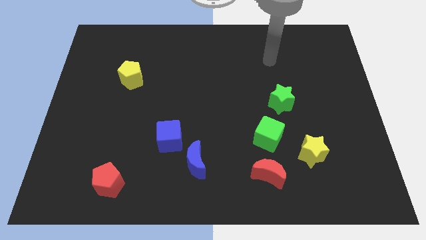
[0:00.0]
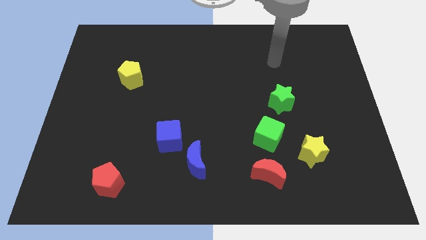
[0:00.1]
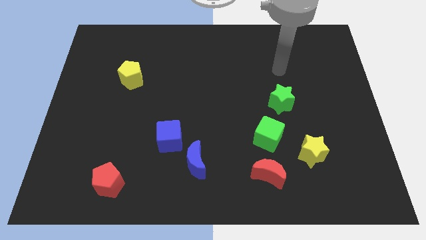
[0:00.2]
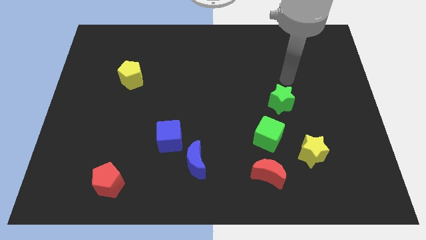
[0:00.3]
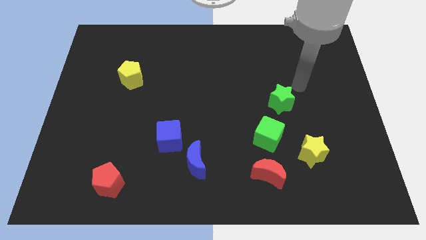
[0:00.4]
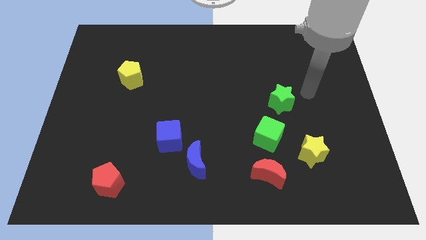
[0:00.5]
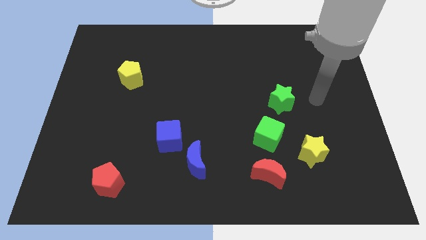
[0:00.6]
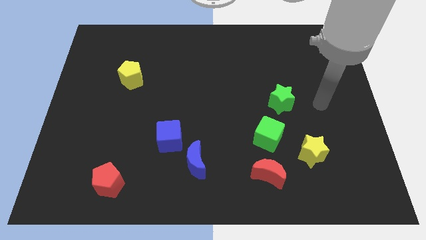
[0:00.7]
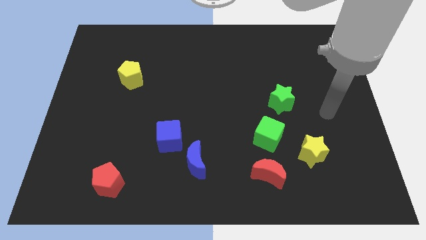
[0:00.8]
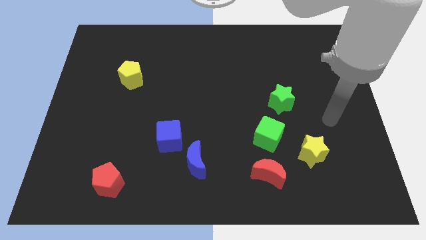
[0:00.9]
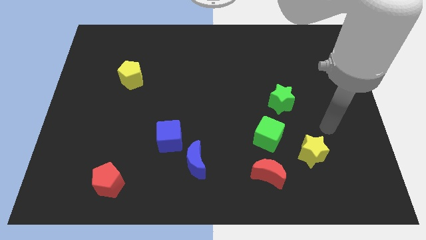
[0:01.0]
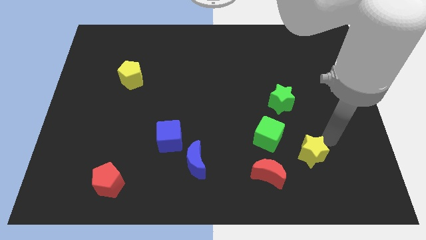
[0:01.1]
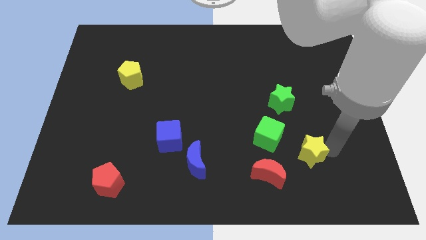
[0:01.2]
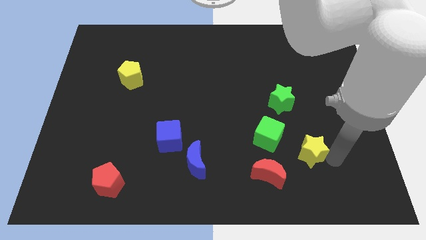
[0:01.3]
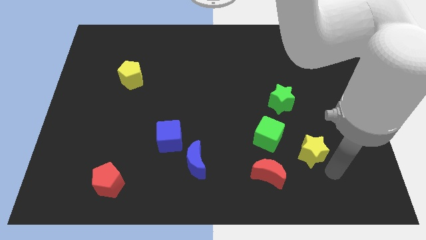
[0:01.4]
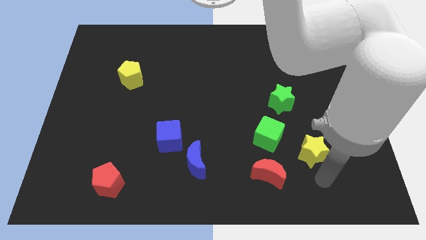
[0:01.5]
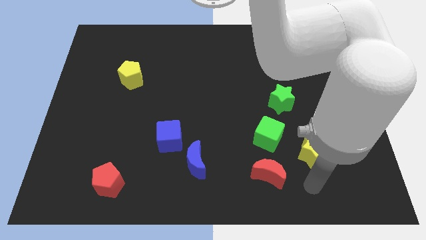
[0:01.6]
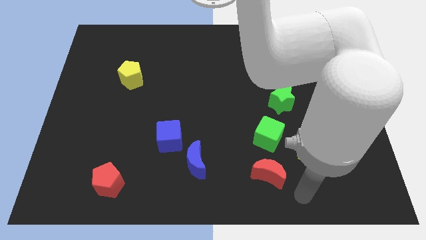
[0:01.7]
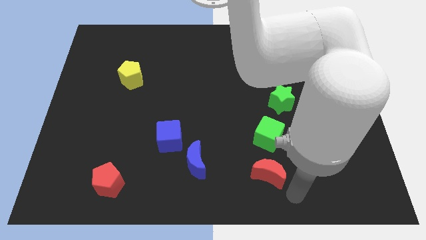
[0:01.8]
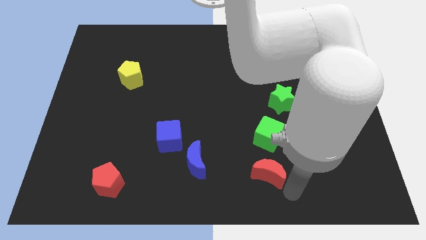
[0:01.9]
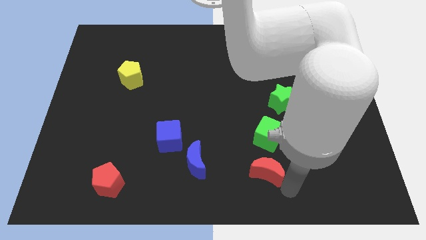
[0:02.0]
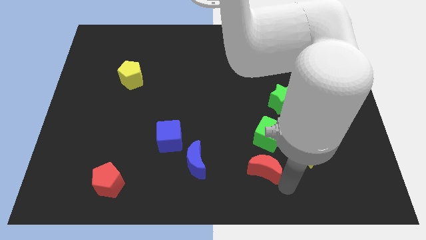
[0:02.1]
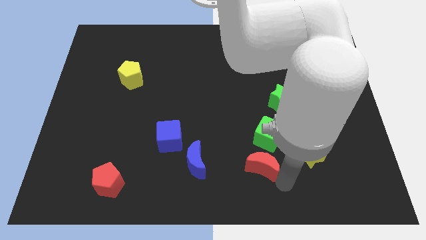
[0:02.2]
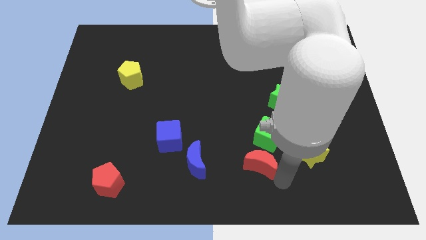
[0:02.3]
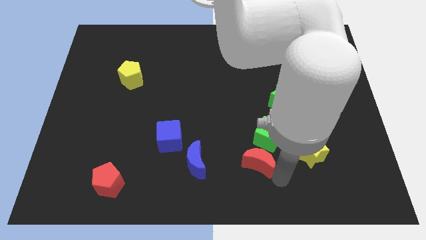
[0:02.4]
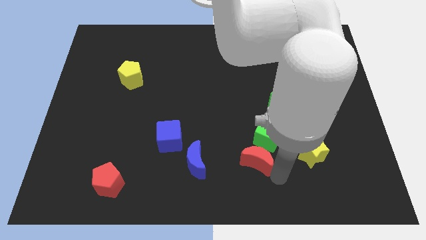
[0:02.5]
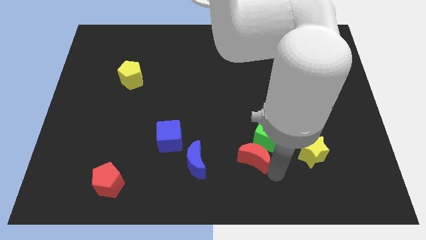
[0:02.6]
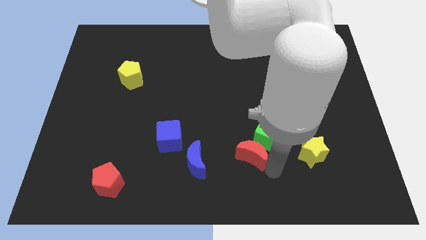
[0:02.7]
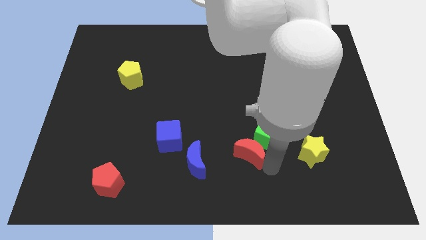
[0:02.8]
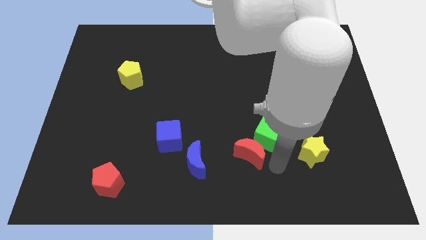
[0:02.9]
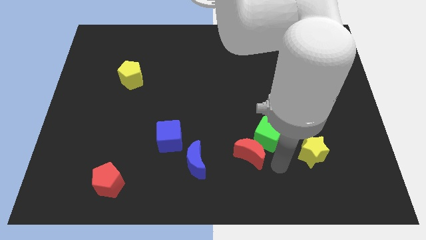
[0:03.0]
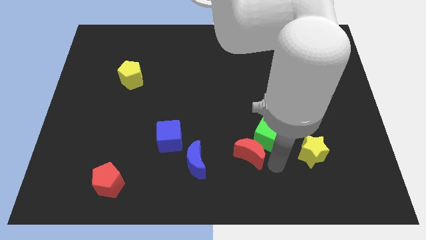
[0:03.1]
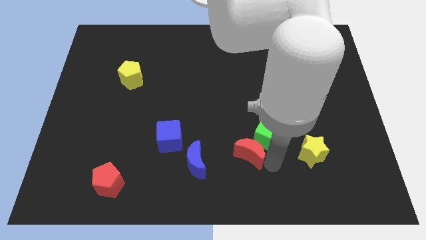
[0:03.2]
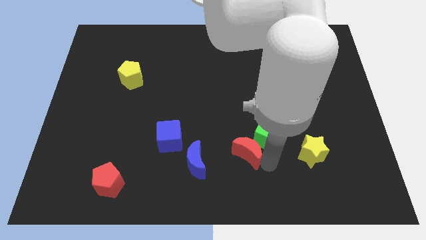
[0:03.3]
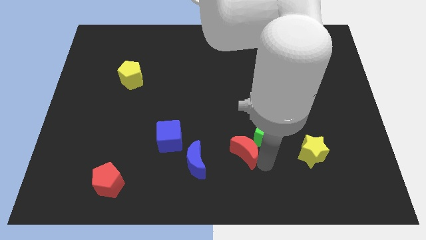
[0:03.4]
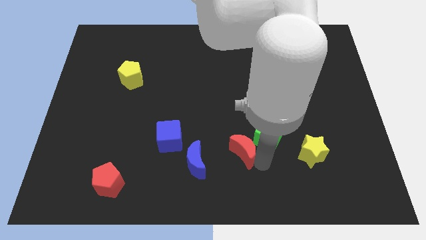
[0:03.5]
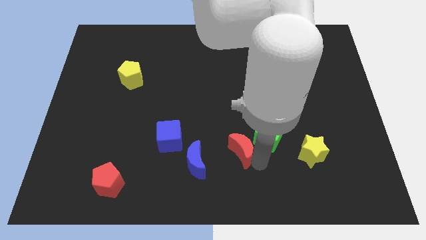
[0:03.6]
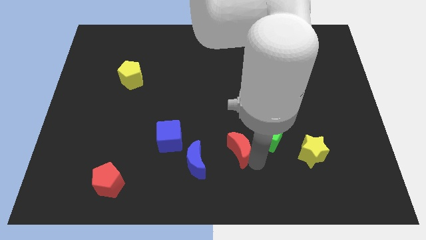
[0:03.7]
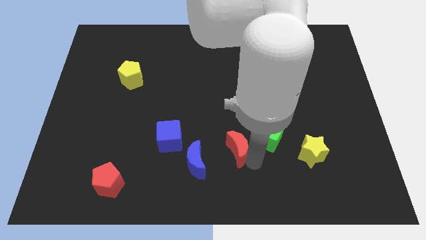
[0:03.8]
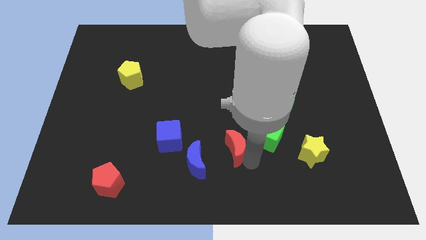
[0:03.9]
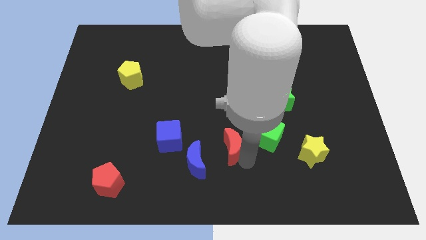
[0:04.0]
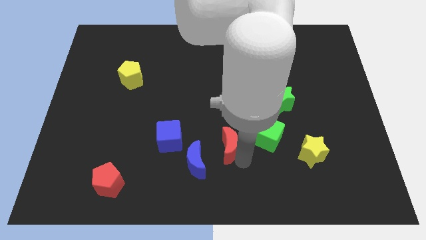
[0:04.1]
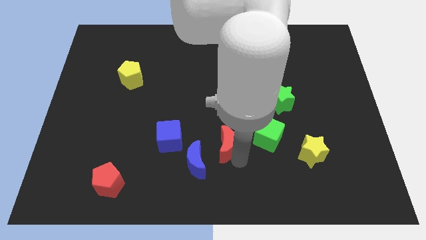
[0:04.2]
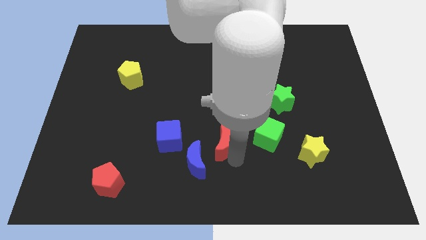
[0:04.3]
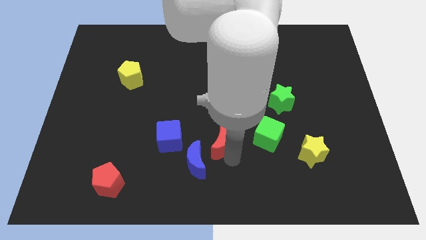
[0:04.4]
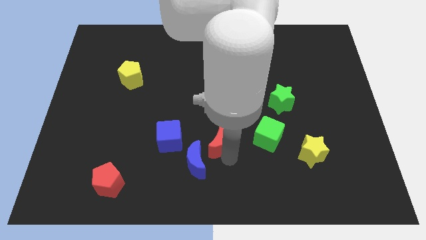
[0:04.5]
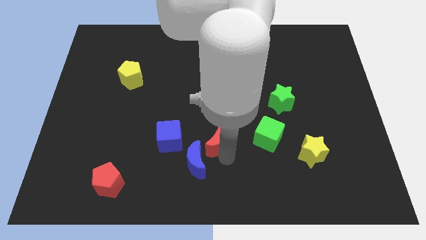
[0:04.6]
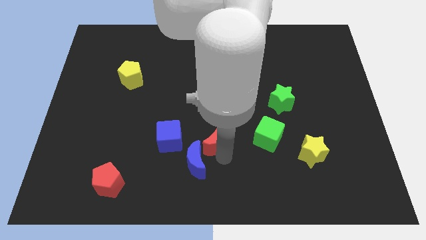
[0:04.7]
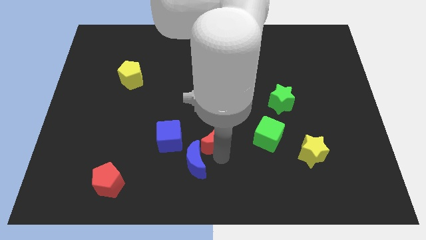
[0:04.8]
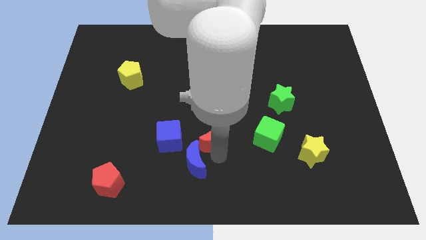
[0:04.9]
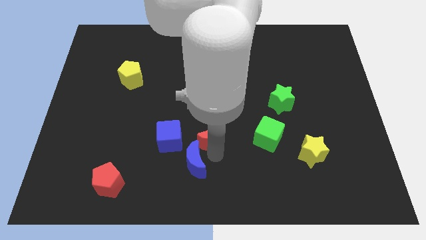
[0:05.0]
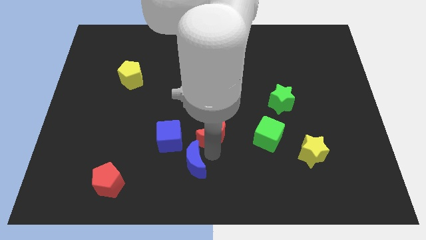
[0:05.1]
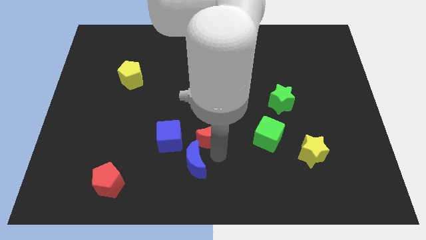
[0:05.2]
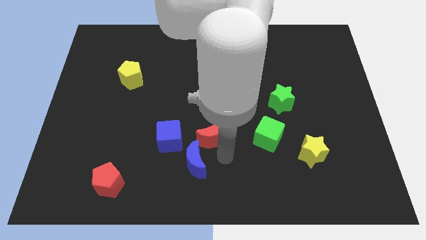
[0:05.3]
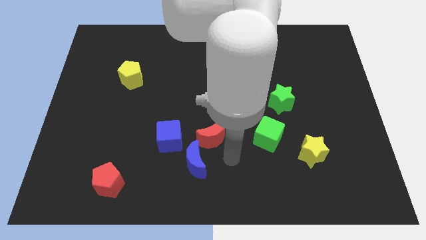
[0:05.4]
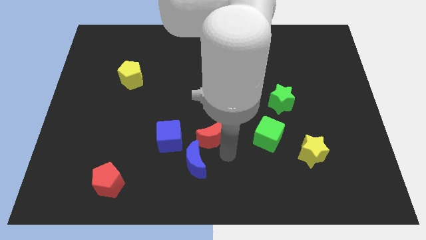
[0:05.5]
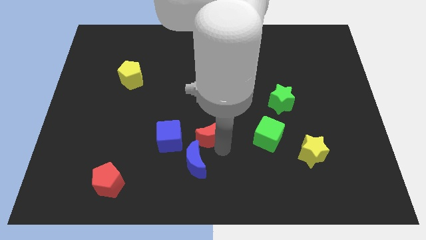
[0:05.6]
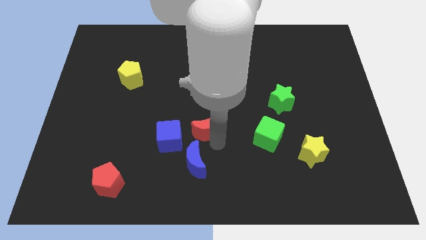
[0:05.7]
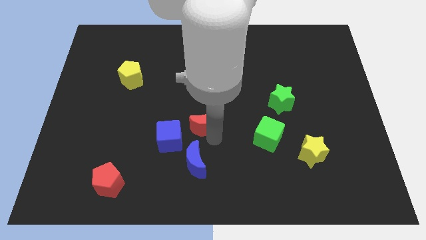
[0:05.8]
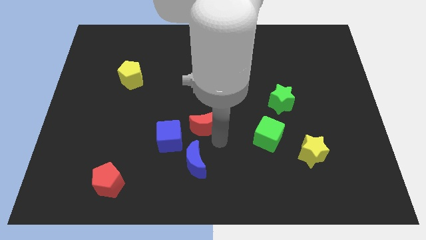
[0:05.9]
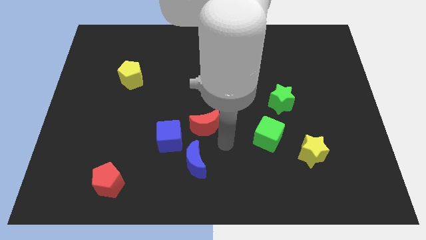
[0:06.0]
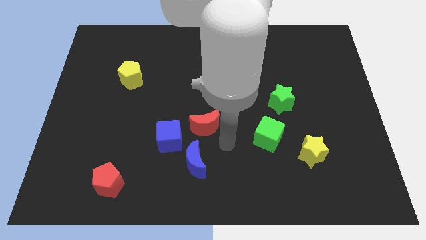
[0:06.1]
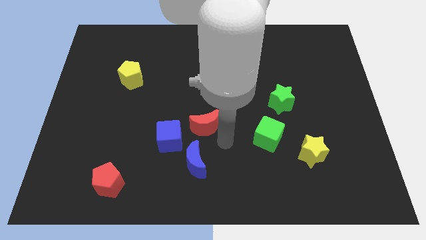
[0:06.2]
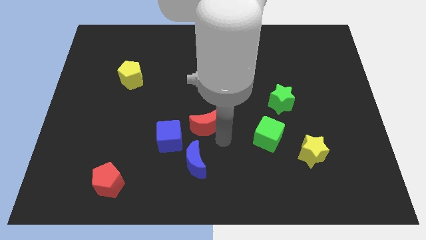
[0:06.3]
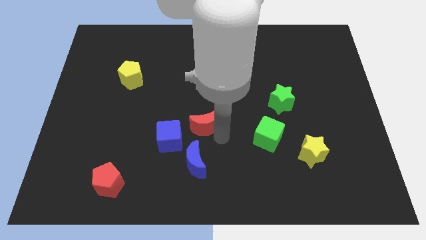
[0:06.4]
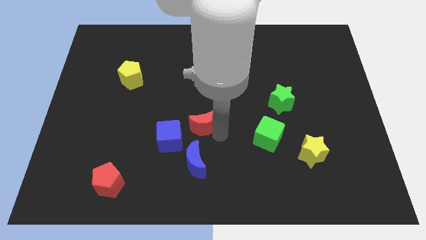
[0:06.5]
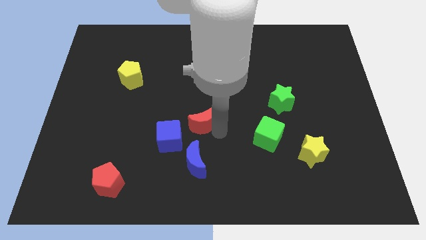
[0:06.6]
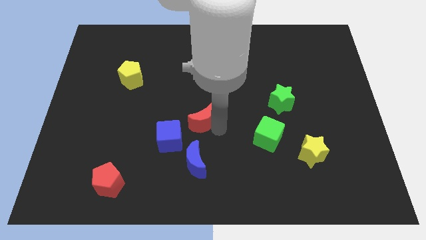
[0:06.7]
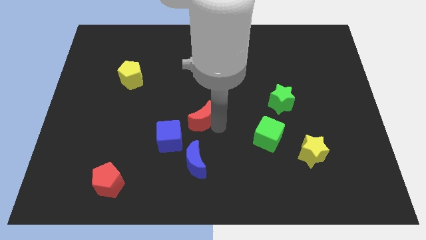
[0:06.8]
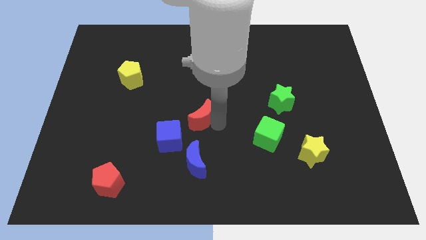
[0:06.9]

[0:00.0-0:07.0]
slide the red moon up and left

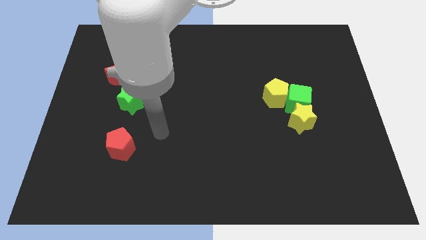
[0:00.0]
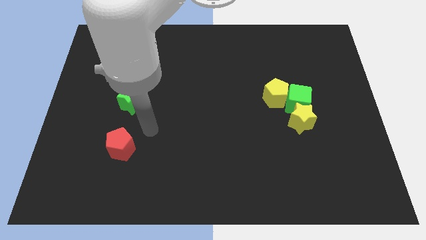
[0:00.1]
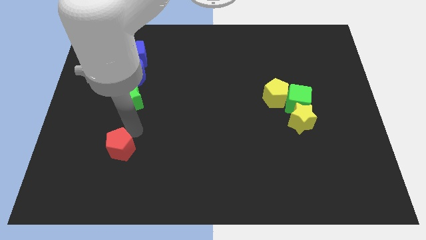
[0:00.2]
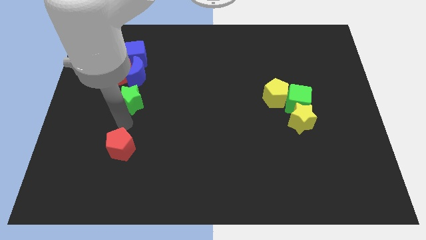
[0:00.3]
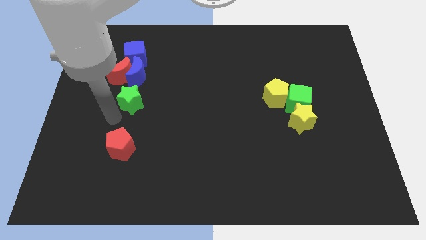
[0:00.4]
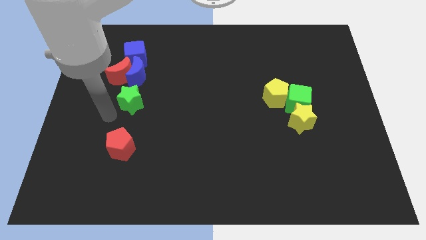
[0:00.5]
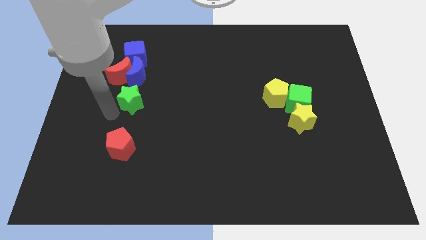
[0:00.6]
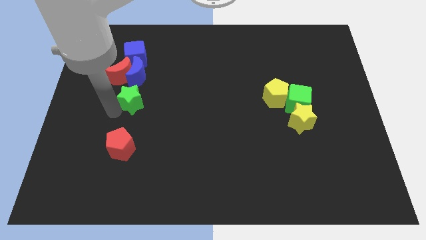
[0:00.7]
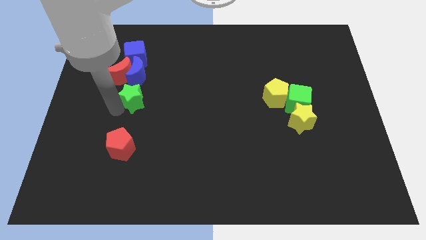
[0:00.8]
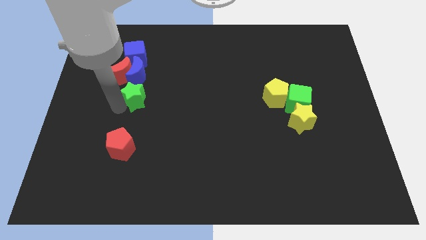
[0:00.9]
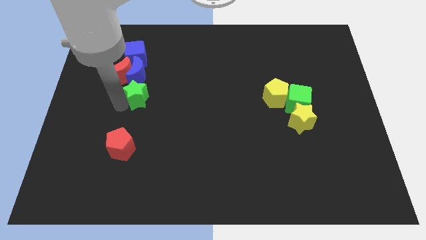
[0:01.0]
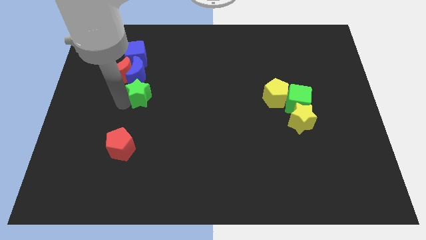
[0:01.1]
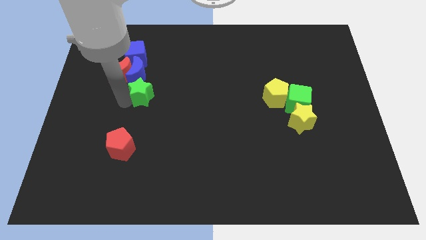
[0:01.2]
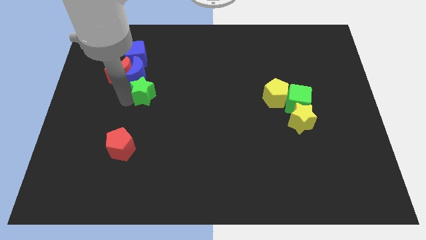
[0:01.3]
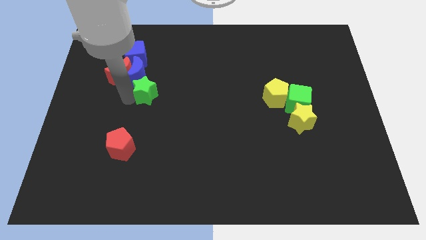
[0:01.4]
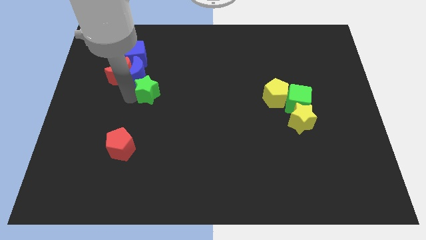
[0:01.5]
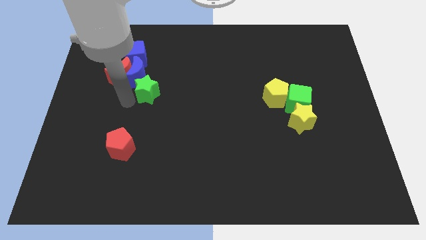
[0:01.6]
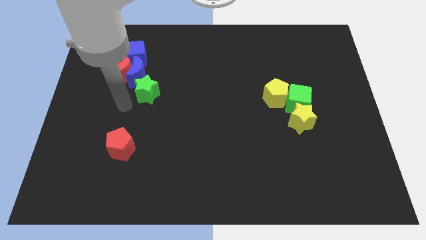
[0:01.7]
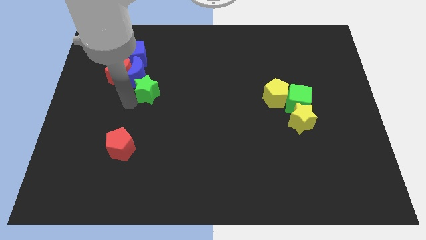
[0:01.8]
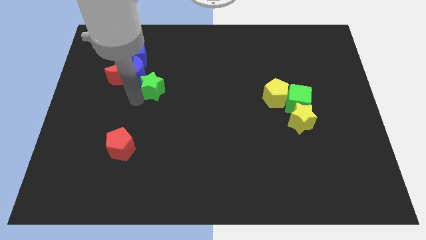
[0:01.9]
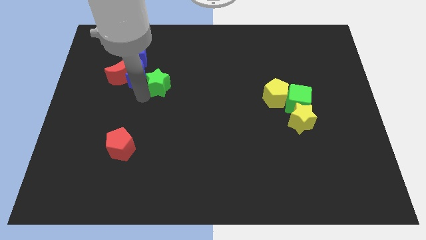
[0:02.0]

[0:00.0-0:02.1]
slide the green star upwards and right diagonally a bit
